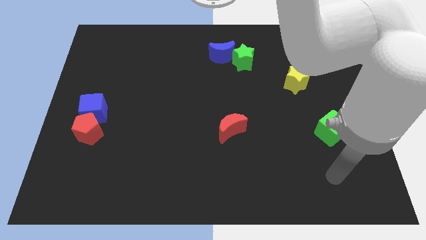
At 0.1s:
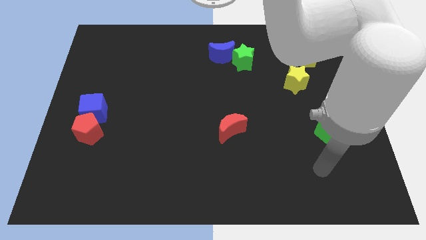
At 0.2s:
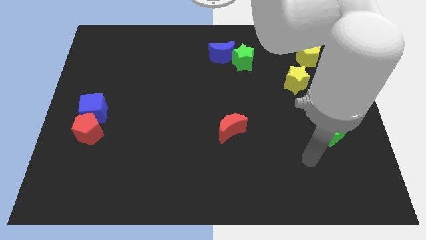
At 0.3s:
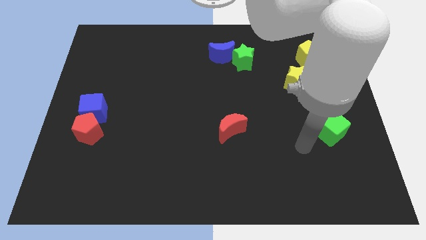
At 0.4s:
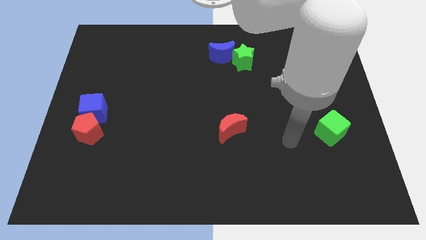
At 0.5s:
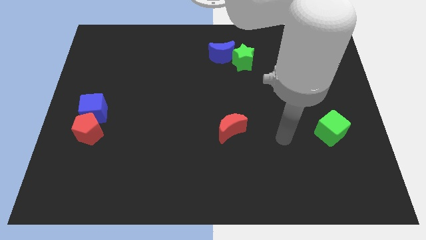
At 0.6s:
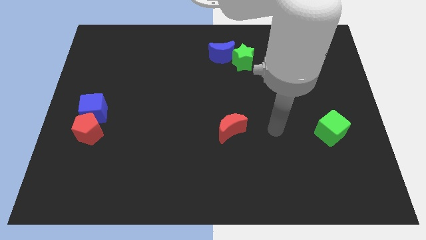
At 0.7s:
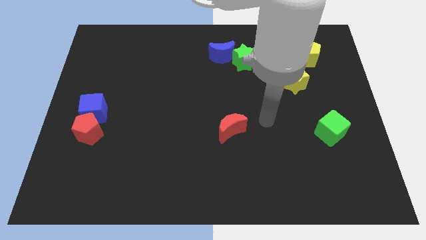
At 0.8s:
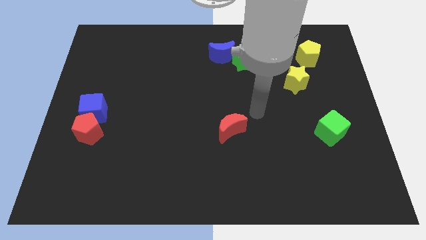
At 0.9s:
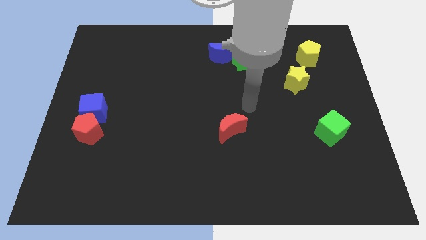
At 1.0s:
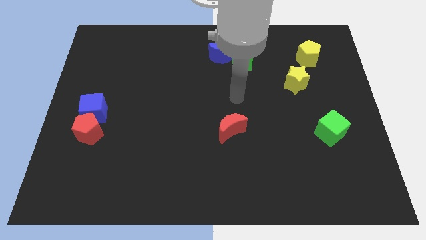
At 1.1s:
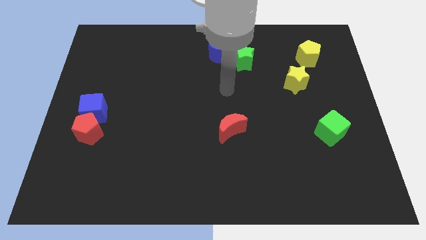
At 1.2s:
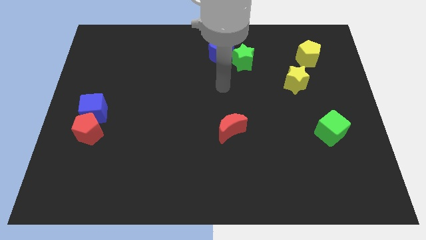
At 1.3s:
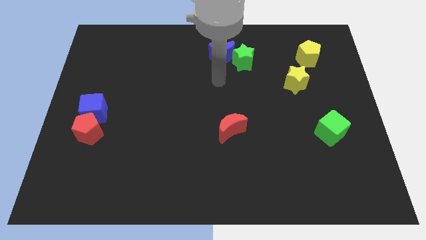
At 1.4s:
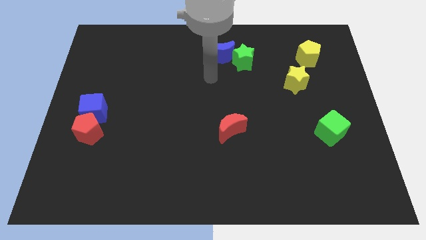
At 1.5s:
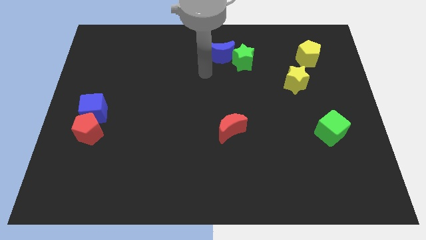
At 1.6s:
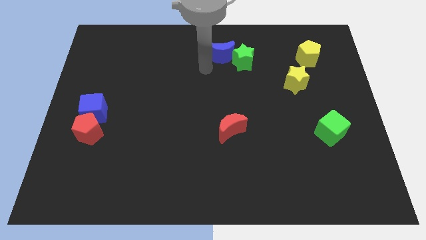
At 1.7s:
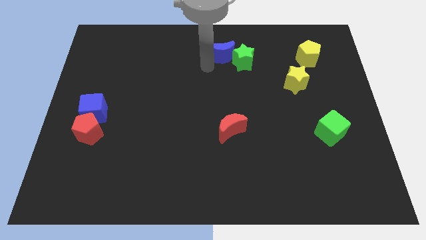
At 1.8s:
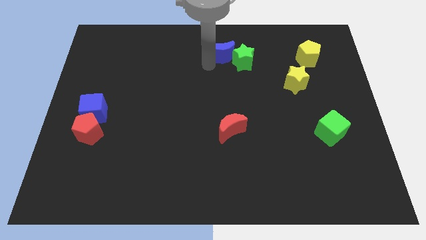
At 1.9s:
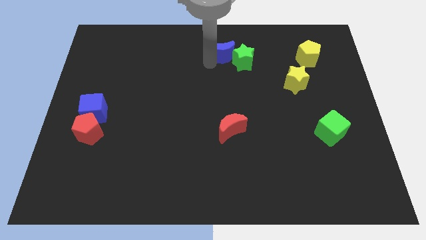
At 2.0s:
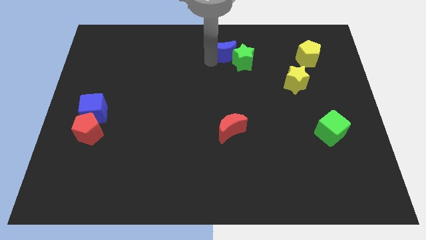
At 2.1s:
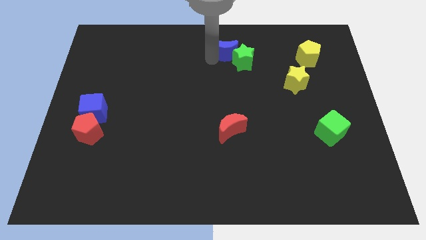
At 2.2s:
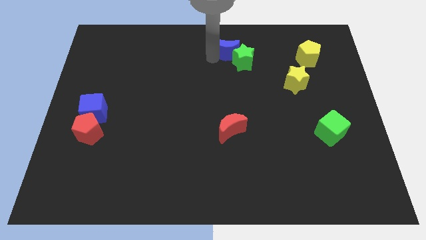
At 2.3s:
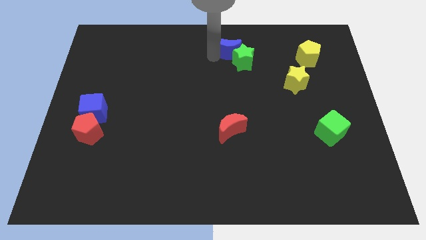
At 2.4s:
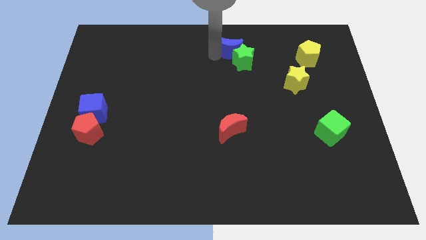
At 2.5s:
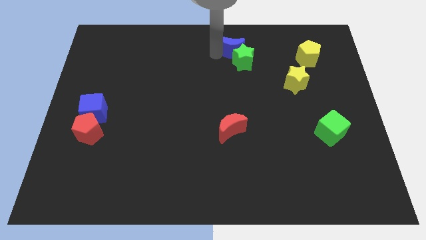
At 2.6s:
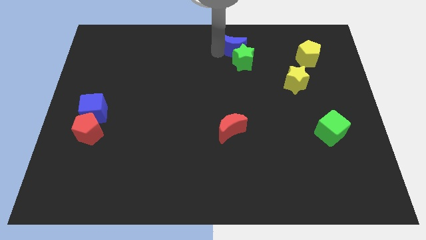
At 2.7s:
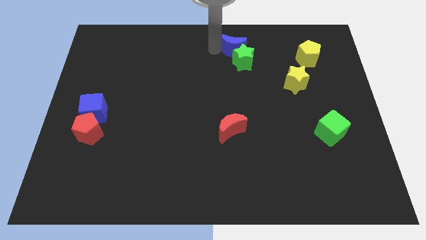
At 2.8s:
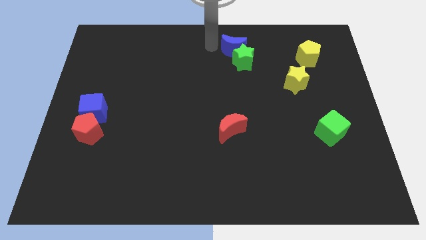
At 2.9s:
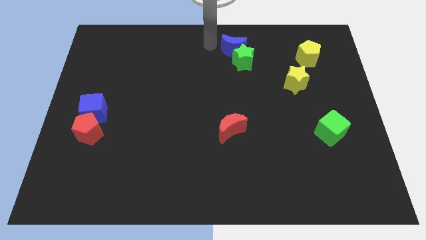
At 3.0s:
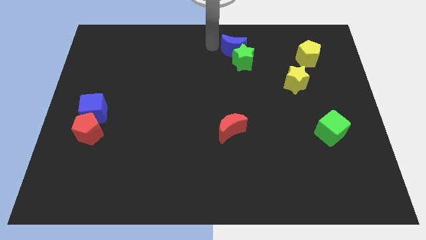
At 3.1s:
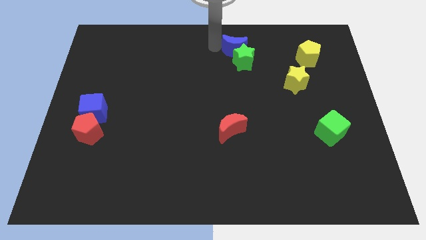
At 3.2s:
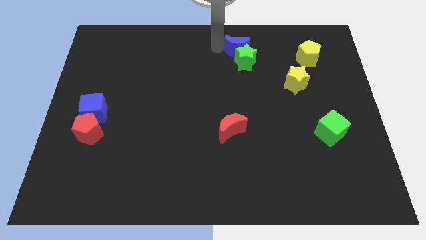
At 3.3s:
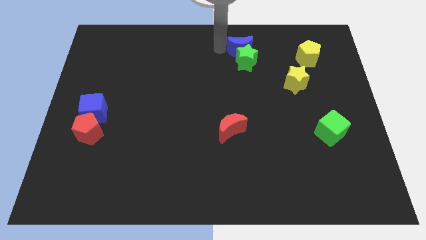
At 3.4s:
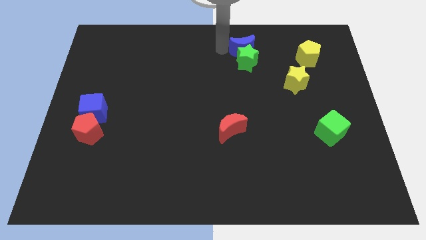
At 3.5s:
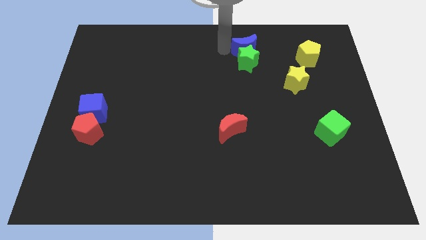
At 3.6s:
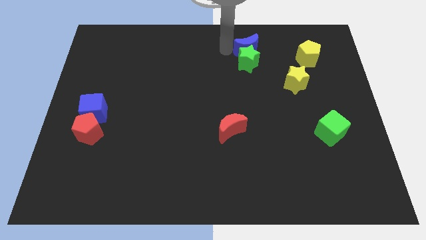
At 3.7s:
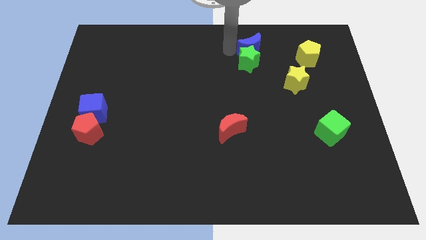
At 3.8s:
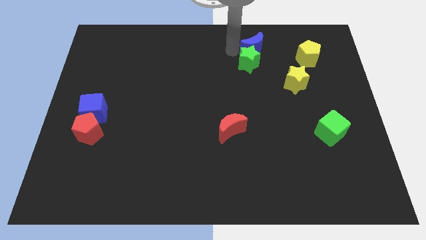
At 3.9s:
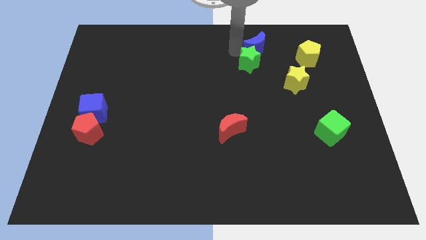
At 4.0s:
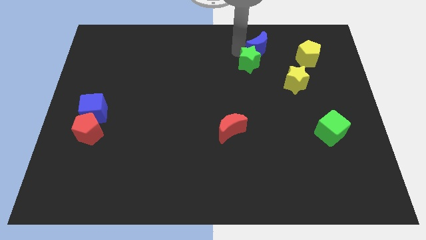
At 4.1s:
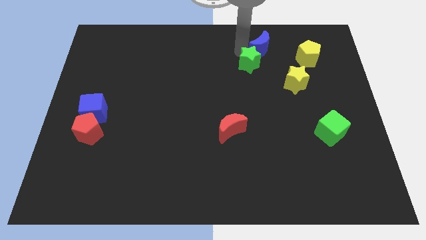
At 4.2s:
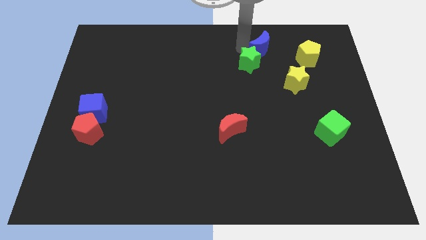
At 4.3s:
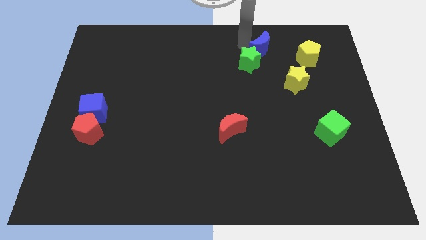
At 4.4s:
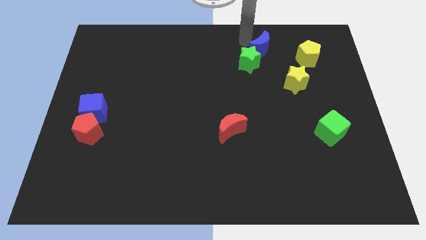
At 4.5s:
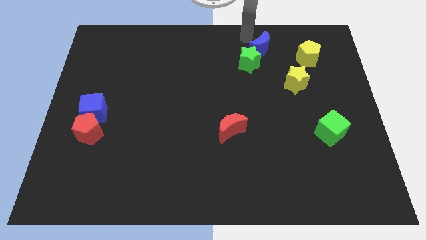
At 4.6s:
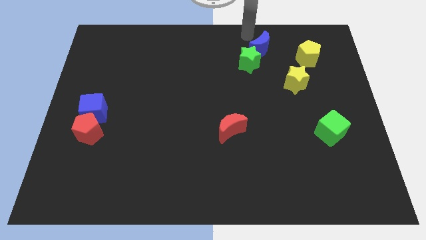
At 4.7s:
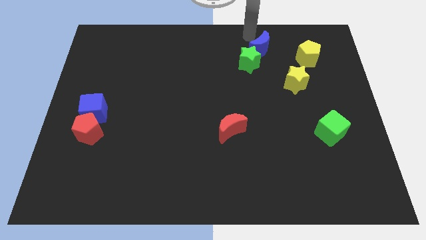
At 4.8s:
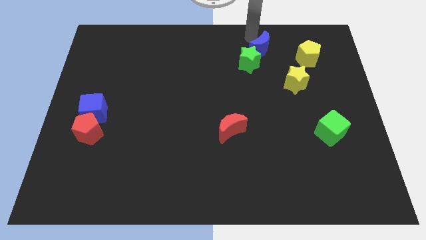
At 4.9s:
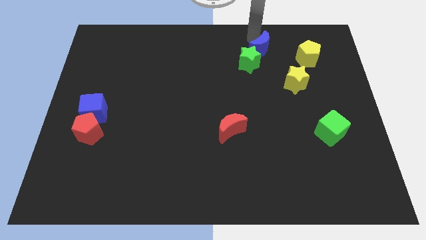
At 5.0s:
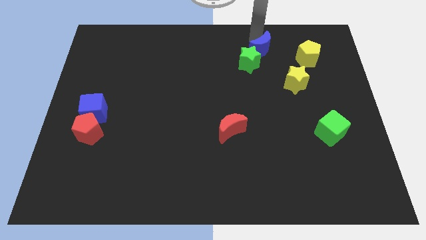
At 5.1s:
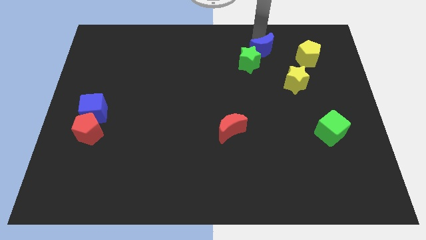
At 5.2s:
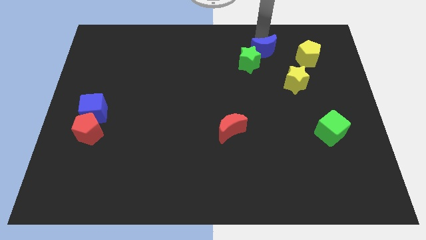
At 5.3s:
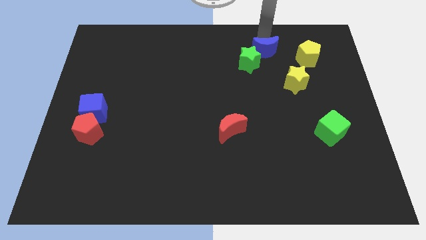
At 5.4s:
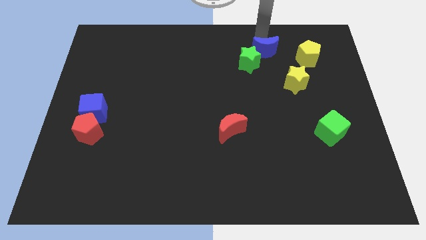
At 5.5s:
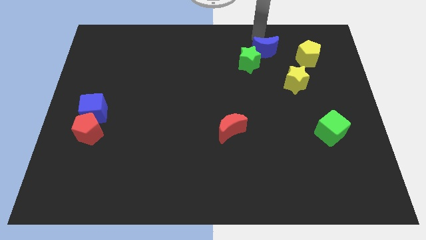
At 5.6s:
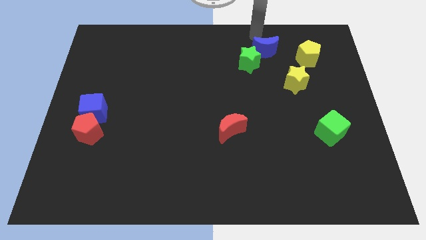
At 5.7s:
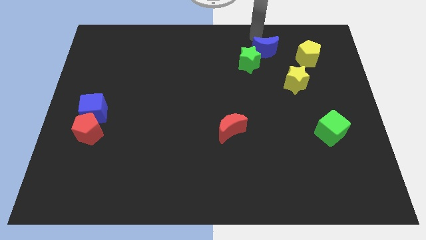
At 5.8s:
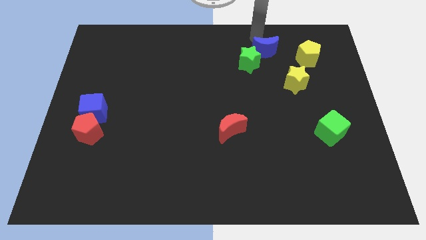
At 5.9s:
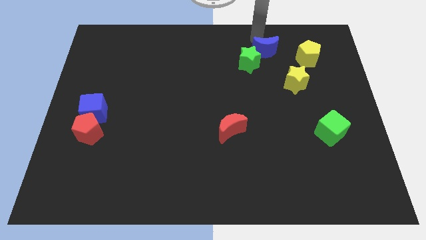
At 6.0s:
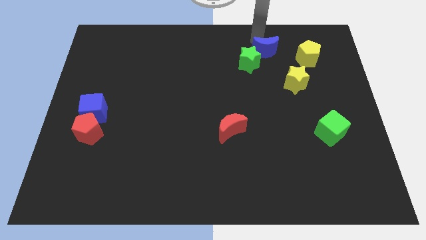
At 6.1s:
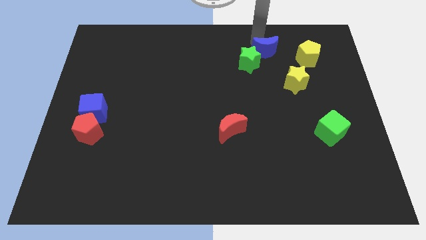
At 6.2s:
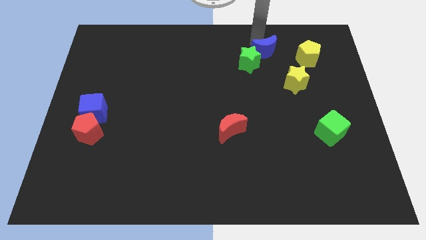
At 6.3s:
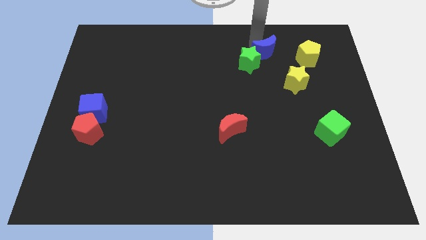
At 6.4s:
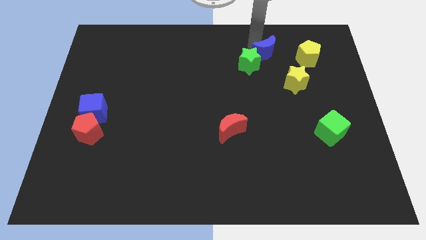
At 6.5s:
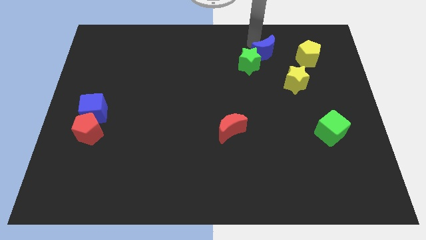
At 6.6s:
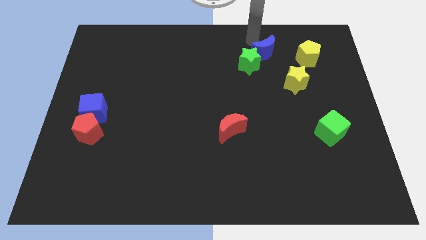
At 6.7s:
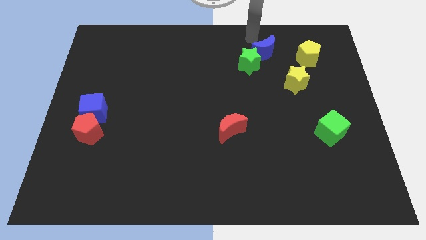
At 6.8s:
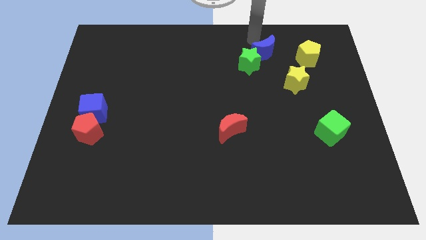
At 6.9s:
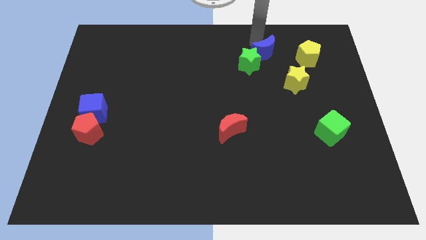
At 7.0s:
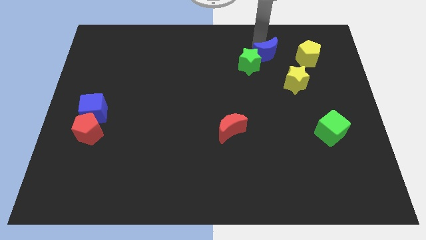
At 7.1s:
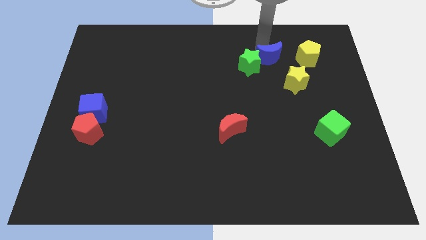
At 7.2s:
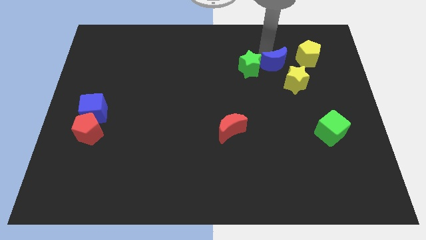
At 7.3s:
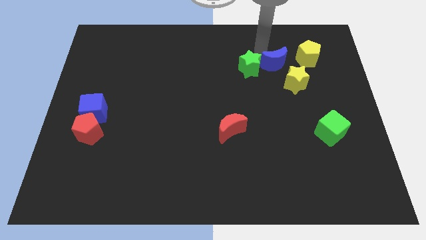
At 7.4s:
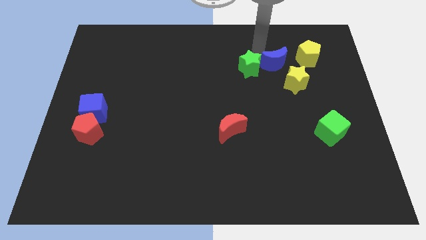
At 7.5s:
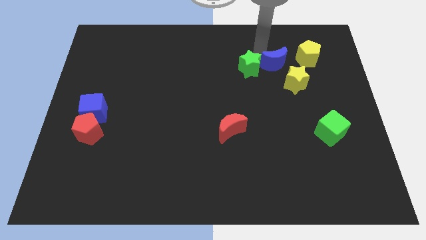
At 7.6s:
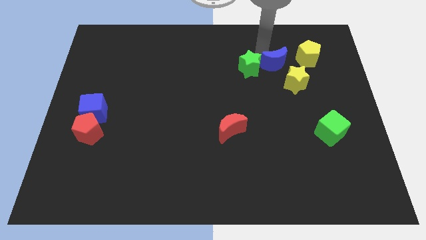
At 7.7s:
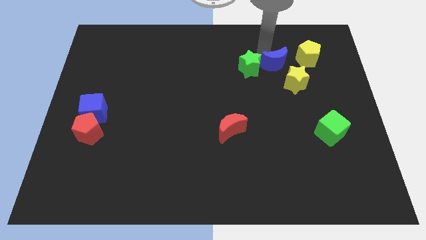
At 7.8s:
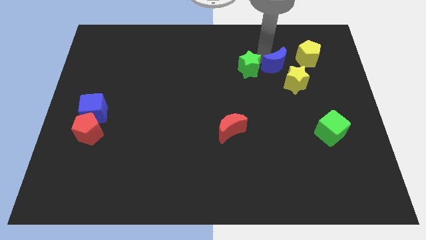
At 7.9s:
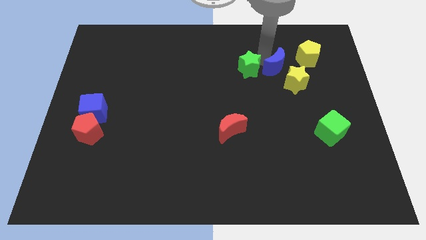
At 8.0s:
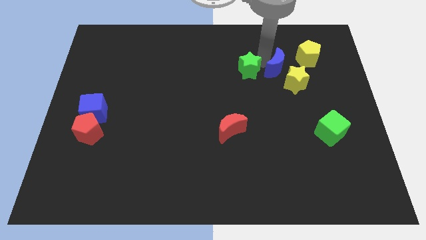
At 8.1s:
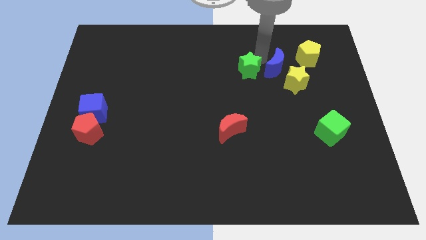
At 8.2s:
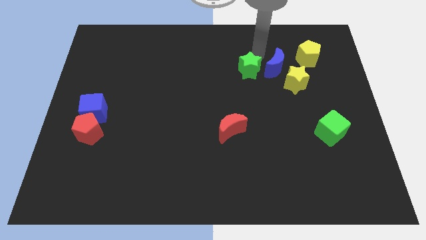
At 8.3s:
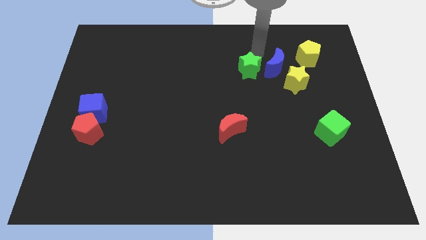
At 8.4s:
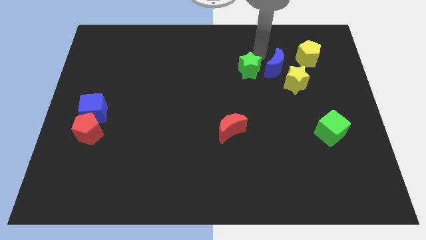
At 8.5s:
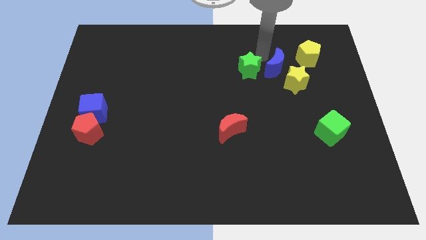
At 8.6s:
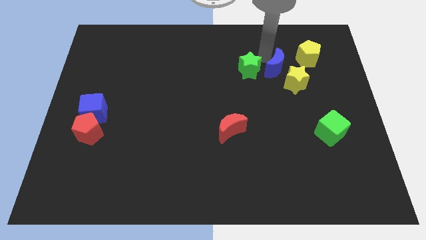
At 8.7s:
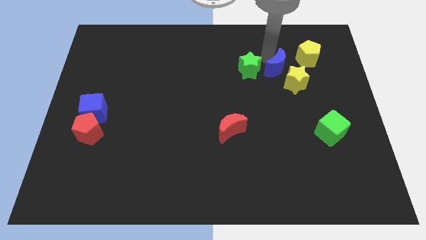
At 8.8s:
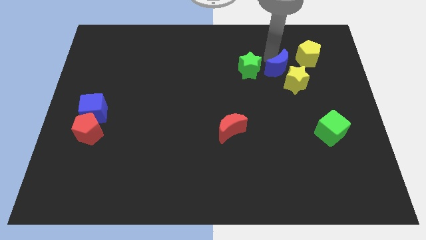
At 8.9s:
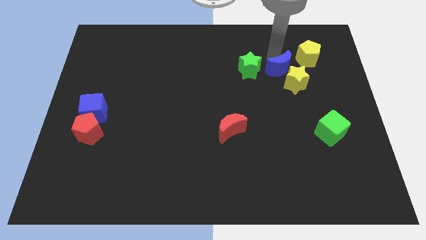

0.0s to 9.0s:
move the blue moon towards the yellow star
